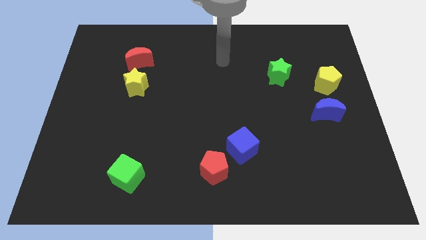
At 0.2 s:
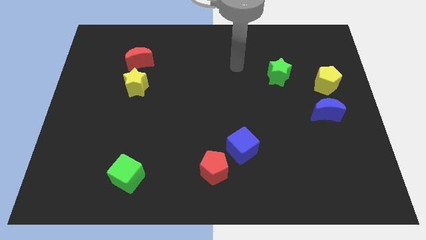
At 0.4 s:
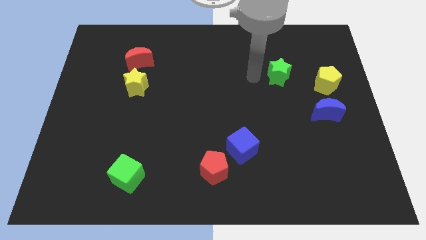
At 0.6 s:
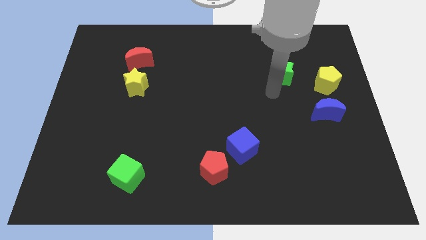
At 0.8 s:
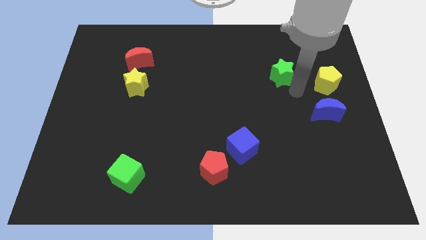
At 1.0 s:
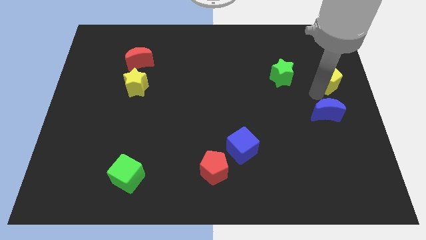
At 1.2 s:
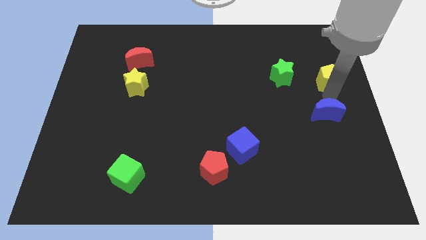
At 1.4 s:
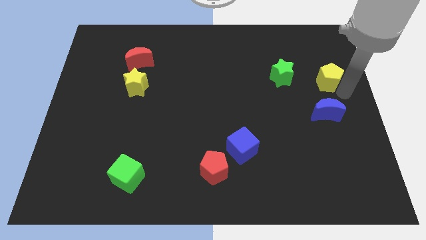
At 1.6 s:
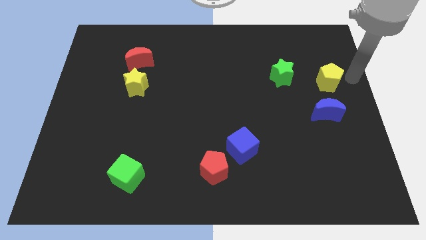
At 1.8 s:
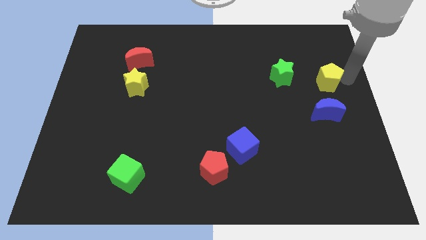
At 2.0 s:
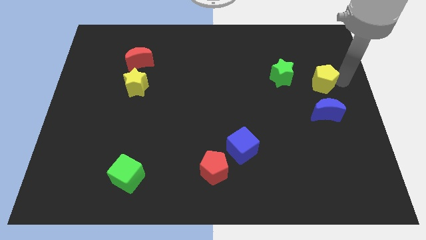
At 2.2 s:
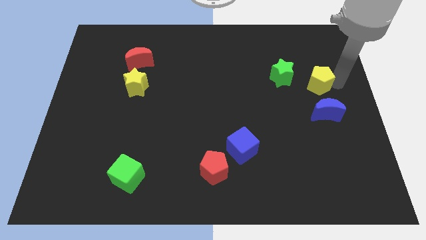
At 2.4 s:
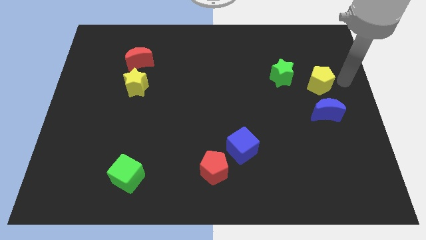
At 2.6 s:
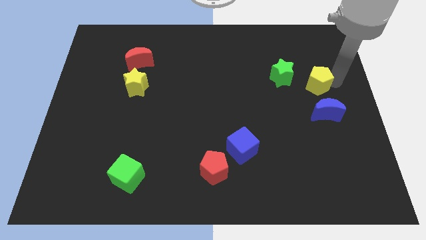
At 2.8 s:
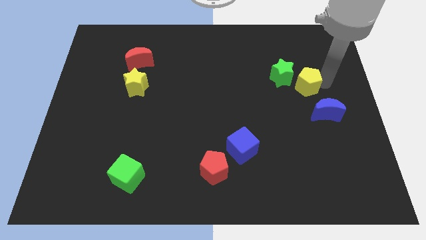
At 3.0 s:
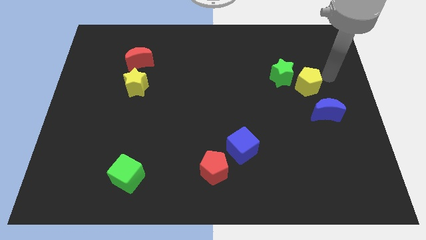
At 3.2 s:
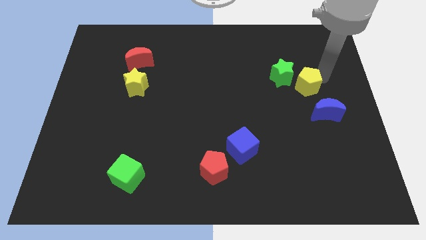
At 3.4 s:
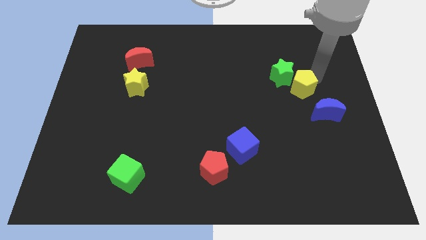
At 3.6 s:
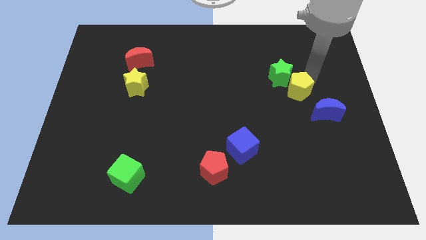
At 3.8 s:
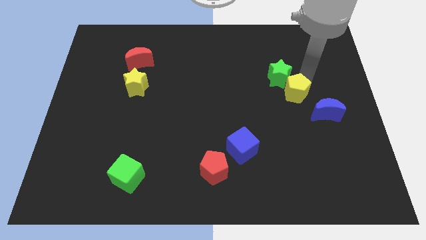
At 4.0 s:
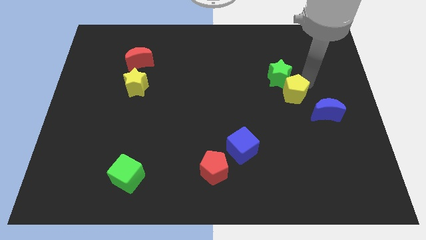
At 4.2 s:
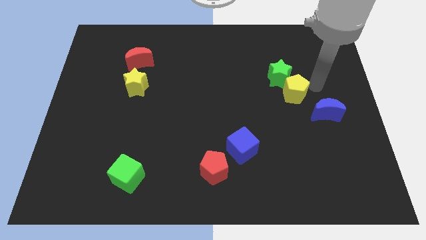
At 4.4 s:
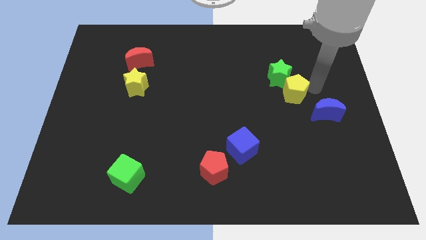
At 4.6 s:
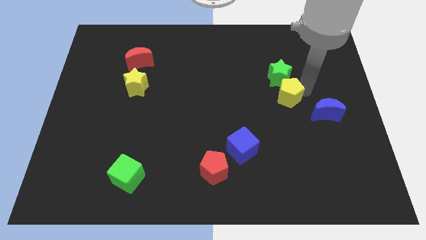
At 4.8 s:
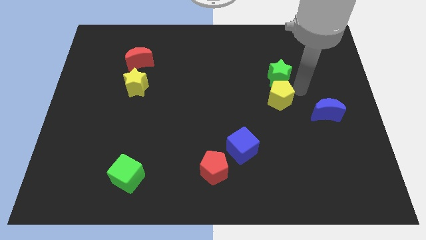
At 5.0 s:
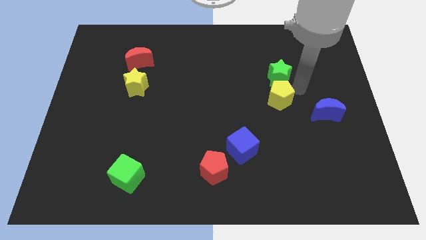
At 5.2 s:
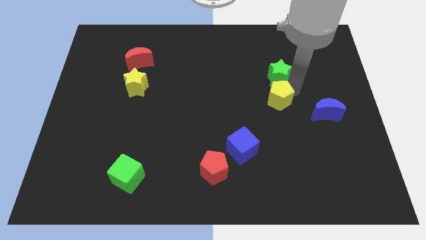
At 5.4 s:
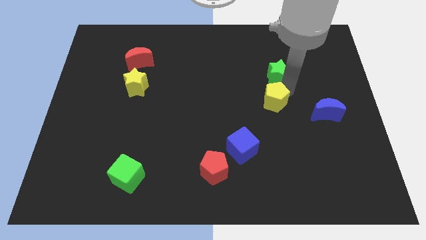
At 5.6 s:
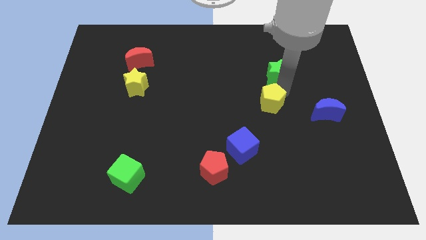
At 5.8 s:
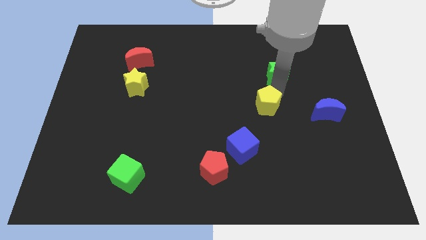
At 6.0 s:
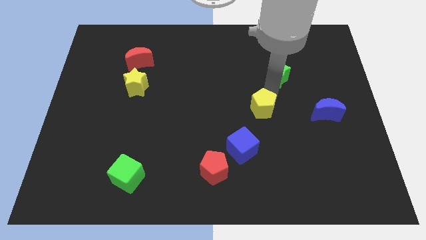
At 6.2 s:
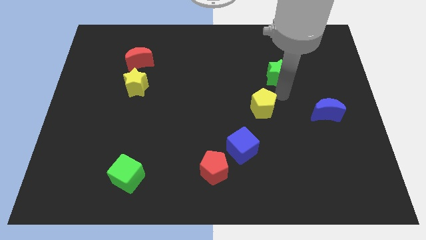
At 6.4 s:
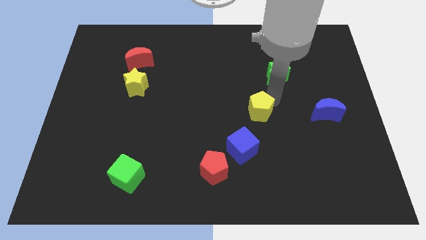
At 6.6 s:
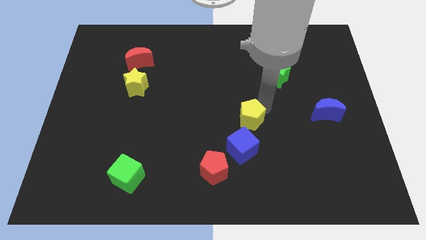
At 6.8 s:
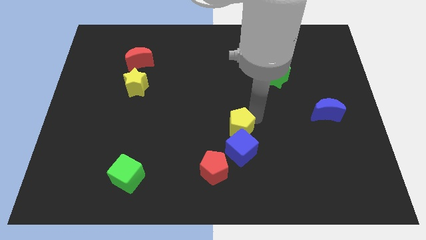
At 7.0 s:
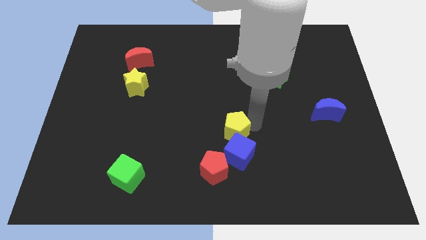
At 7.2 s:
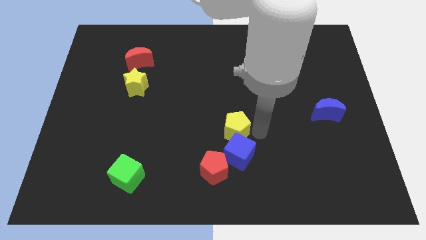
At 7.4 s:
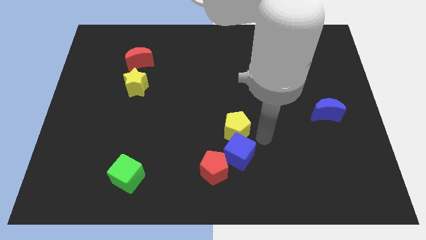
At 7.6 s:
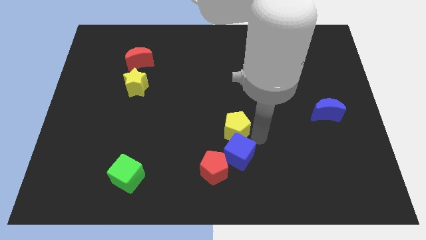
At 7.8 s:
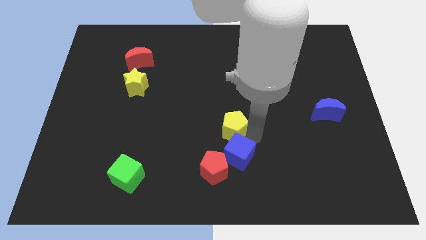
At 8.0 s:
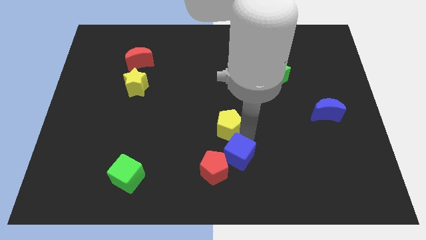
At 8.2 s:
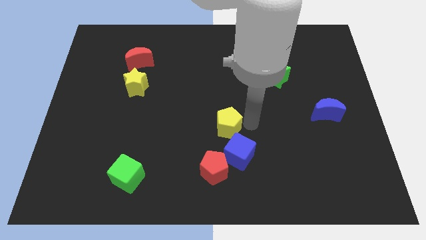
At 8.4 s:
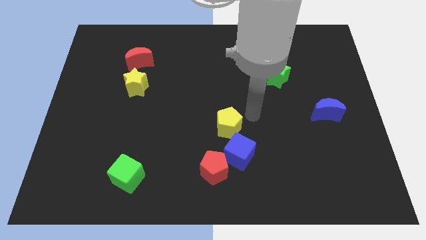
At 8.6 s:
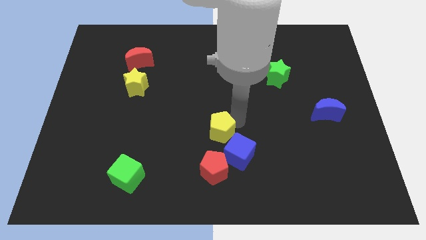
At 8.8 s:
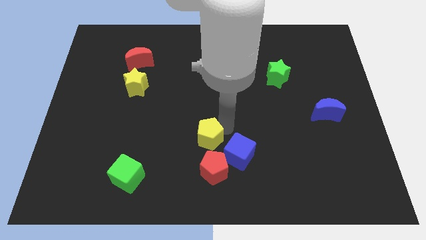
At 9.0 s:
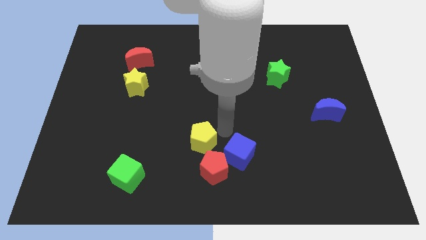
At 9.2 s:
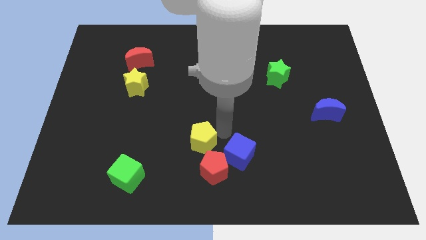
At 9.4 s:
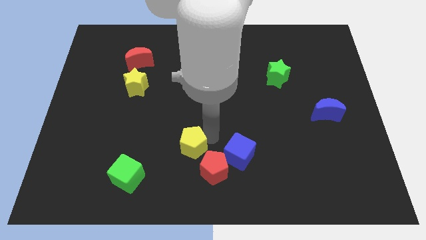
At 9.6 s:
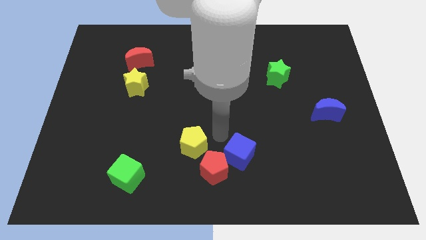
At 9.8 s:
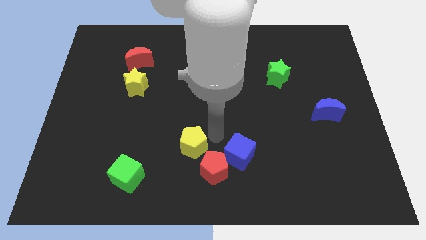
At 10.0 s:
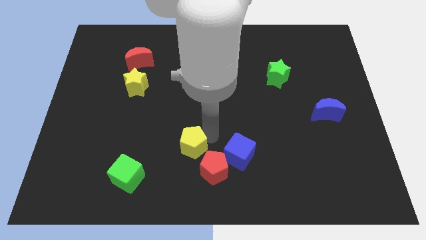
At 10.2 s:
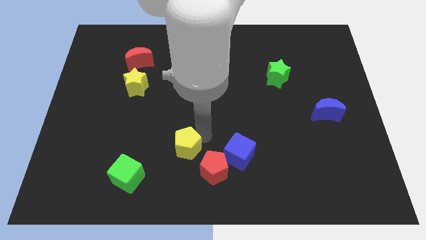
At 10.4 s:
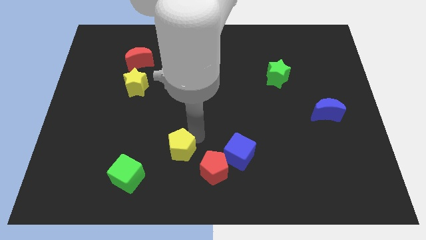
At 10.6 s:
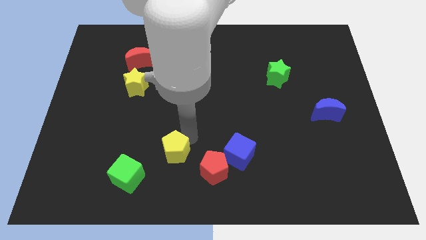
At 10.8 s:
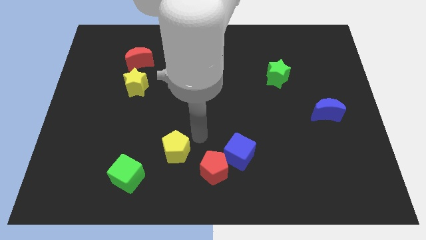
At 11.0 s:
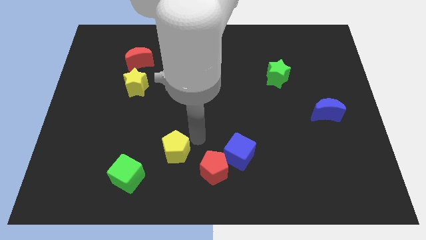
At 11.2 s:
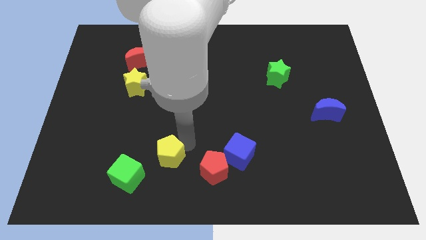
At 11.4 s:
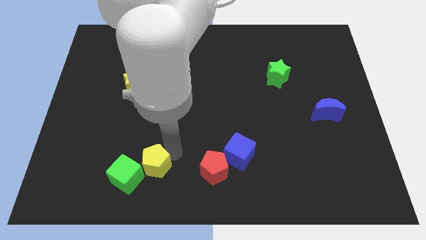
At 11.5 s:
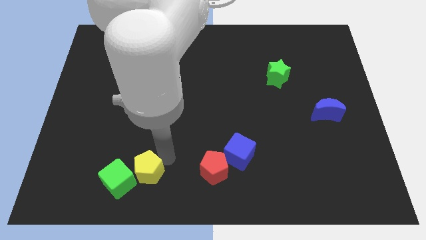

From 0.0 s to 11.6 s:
put the yellow pentagon close to the green cube

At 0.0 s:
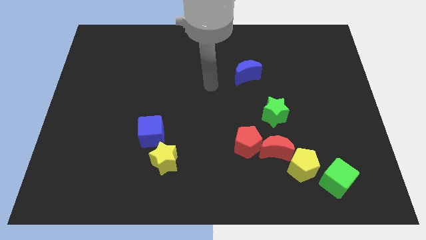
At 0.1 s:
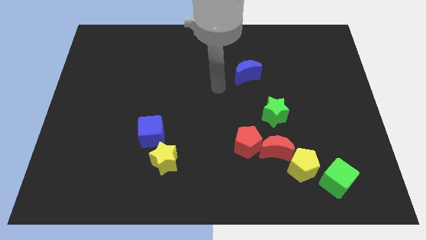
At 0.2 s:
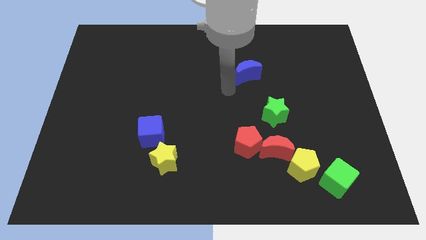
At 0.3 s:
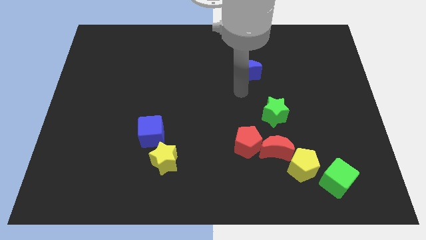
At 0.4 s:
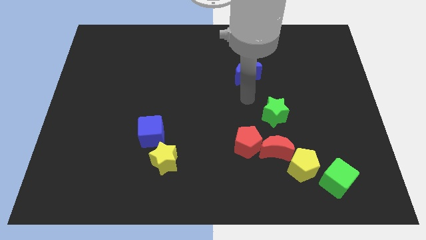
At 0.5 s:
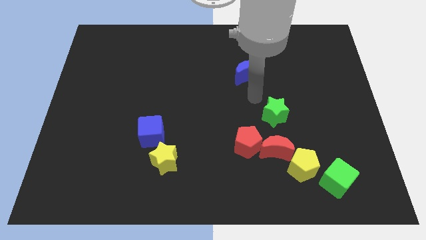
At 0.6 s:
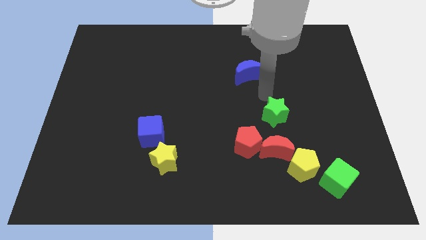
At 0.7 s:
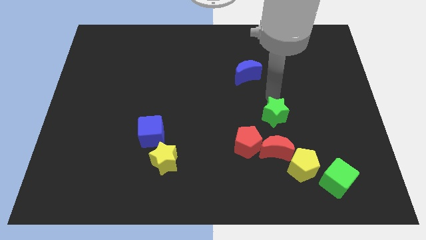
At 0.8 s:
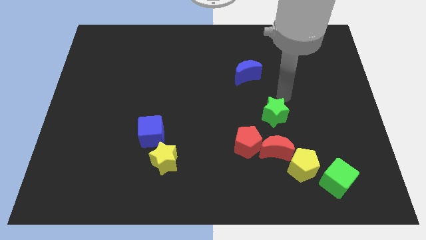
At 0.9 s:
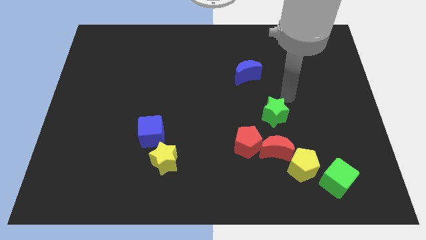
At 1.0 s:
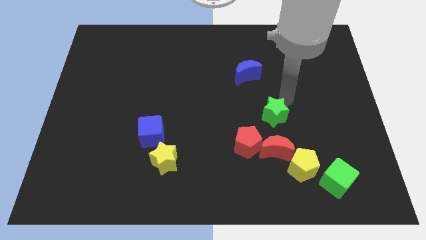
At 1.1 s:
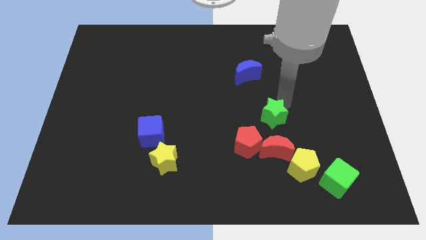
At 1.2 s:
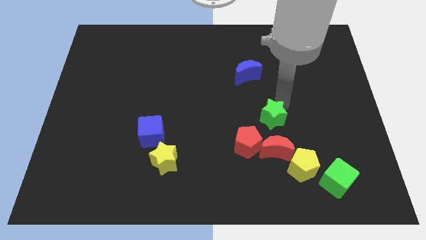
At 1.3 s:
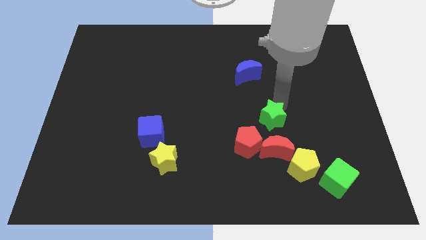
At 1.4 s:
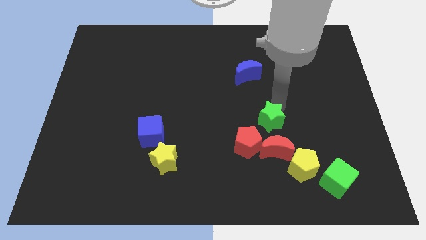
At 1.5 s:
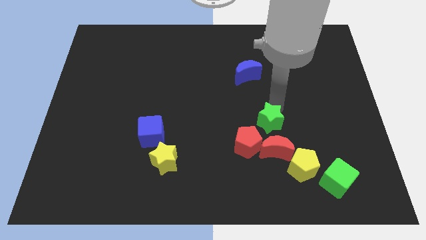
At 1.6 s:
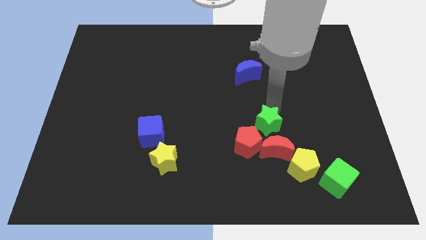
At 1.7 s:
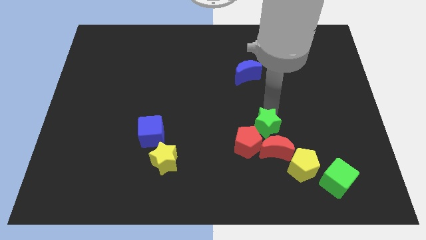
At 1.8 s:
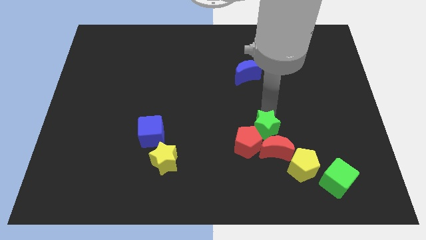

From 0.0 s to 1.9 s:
move the green star to the red pentagon

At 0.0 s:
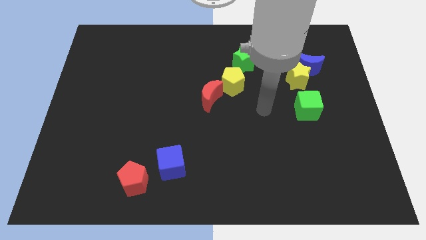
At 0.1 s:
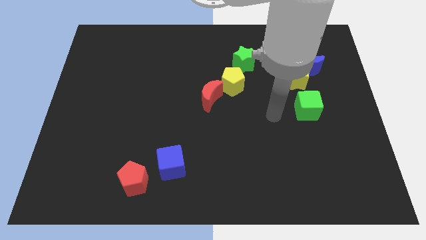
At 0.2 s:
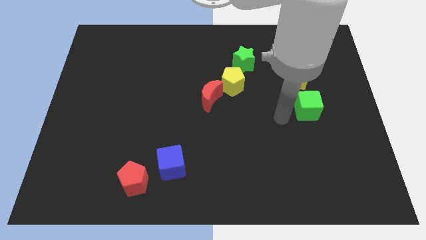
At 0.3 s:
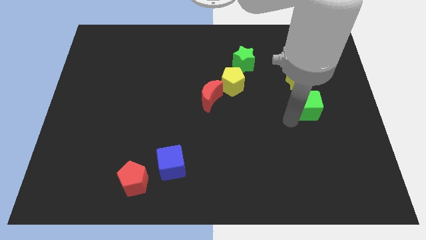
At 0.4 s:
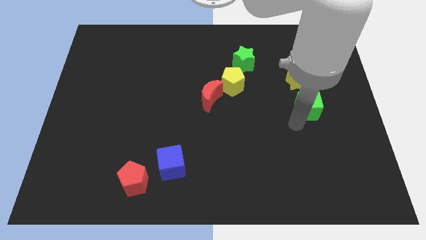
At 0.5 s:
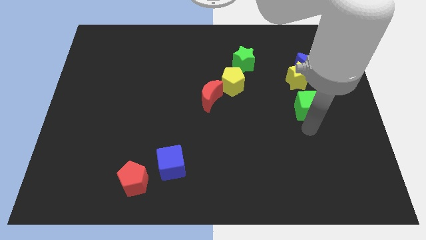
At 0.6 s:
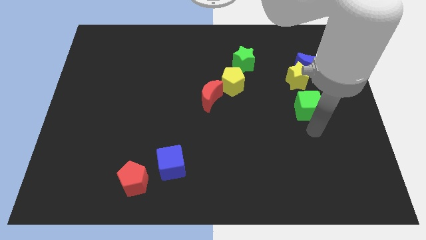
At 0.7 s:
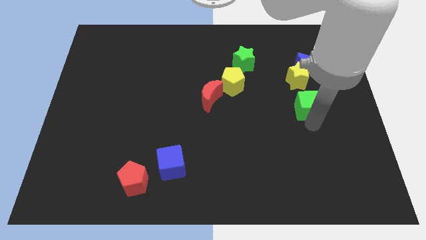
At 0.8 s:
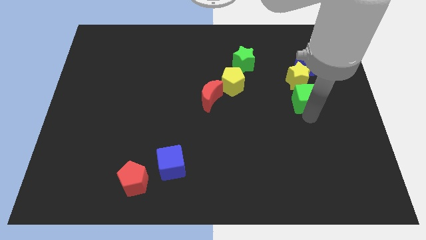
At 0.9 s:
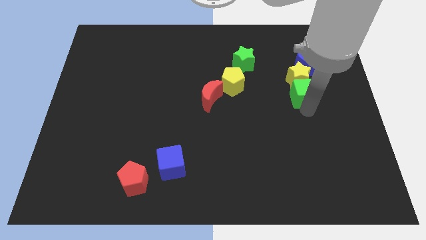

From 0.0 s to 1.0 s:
slide the green cube towards the yellow star
